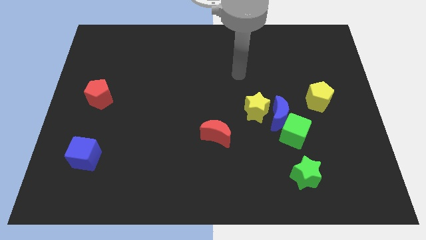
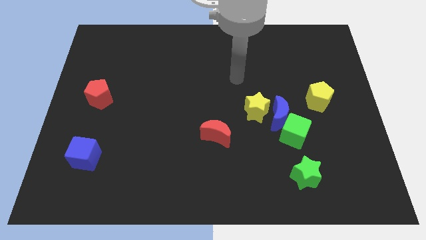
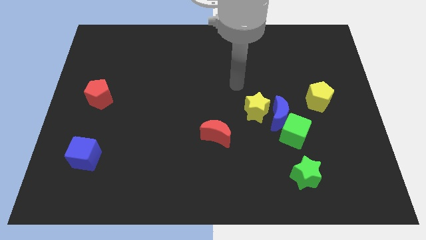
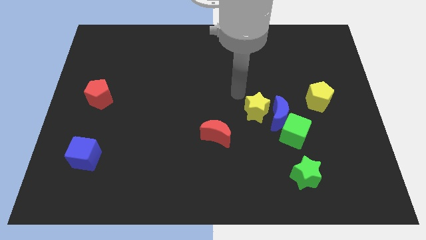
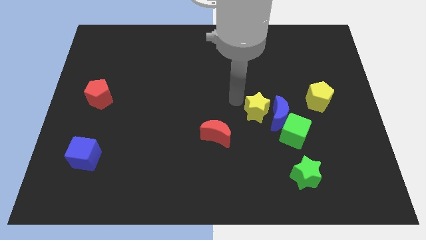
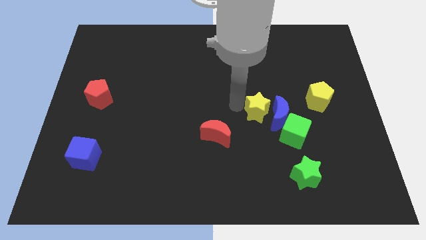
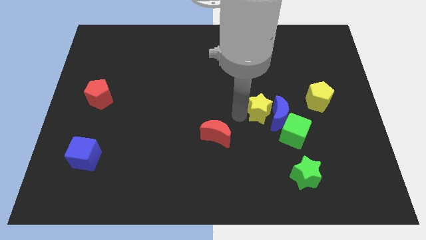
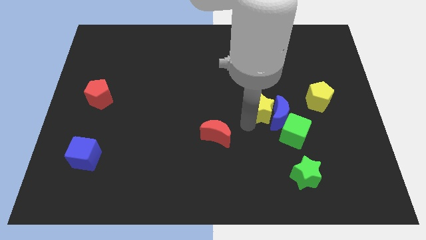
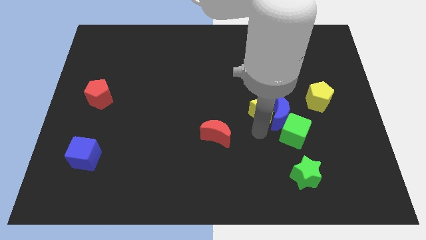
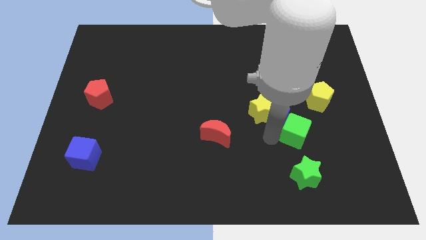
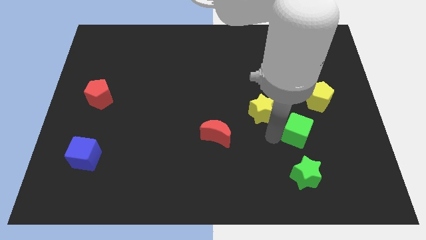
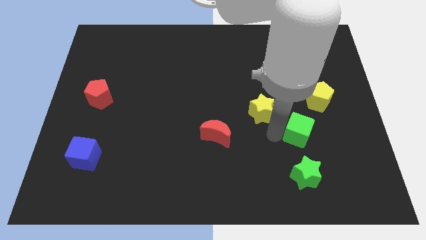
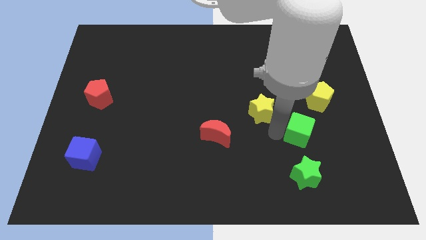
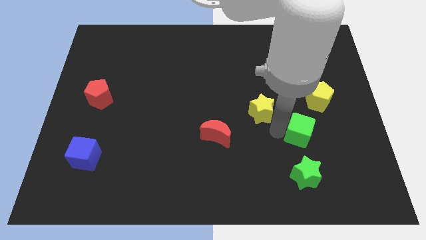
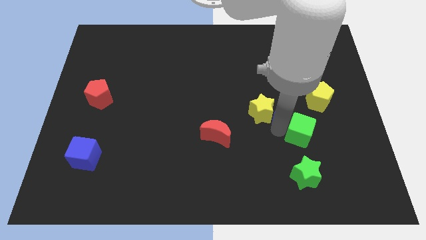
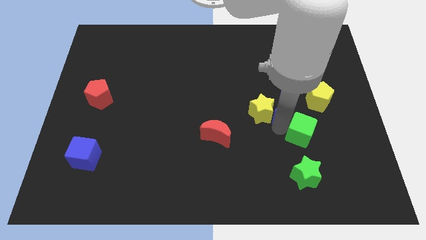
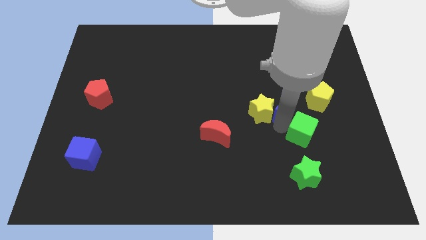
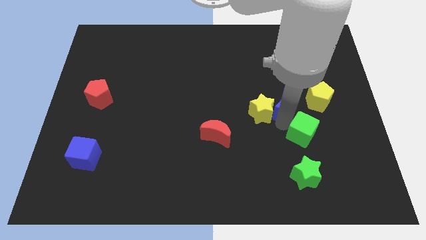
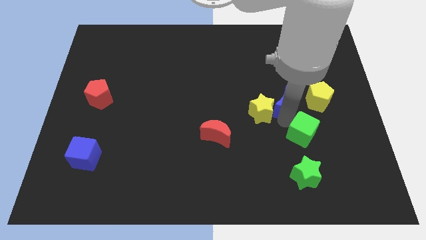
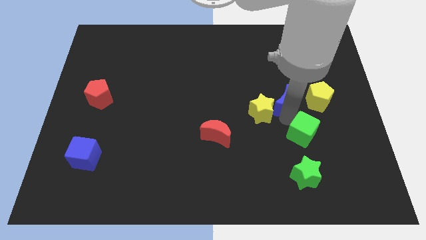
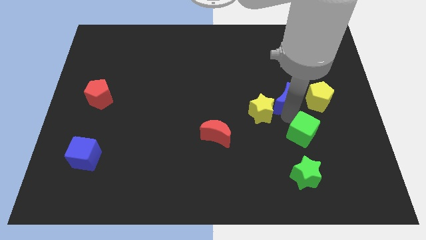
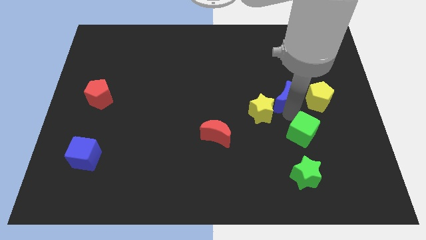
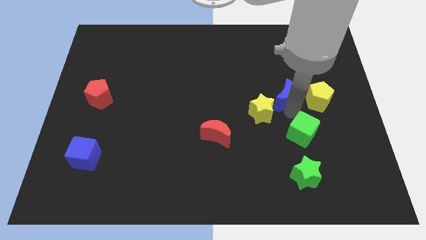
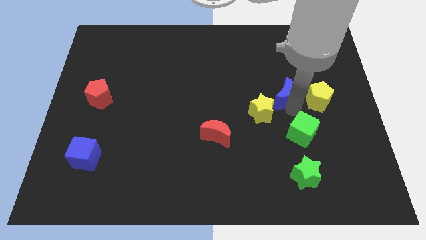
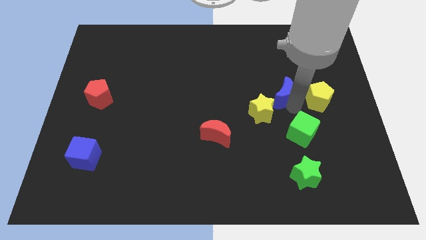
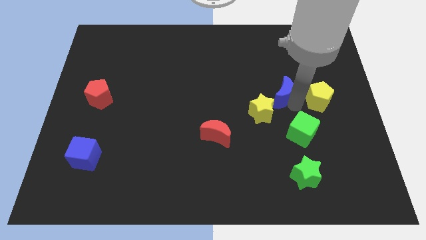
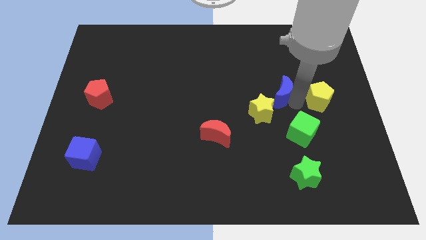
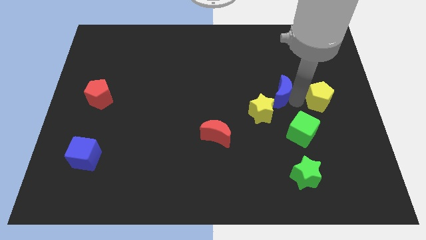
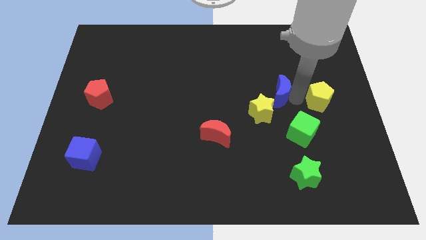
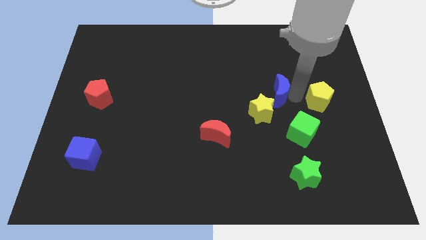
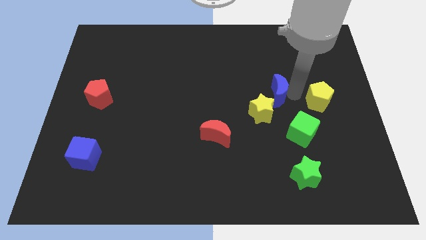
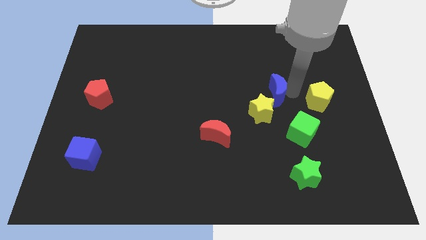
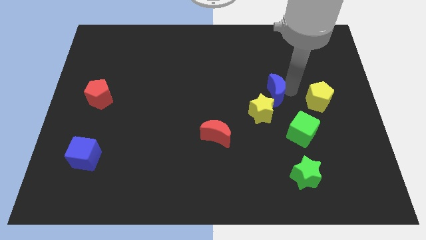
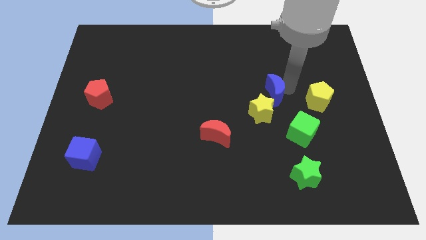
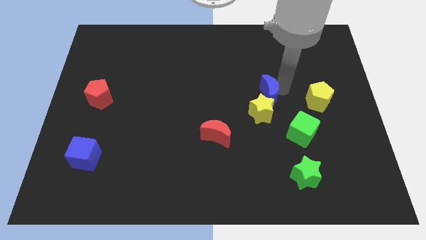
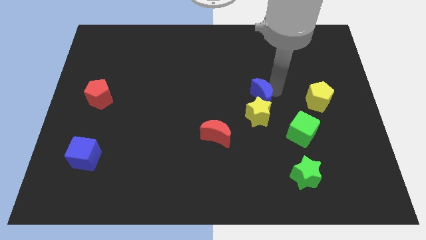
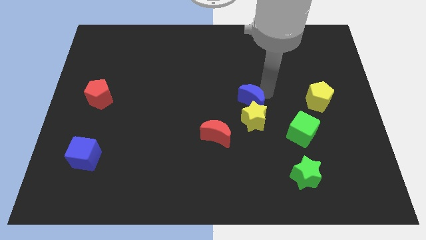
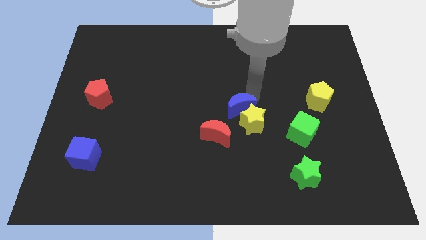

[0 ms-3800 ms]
move the blue moon away from the green cube and yellow star

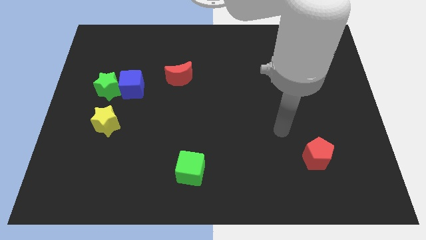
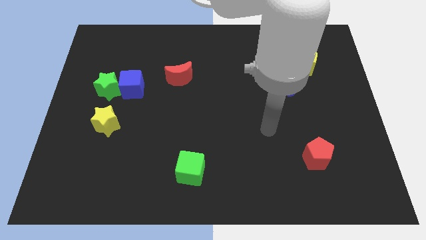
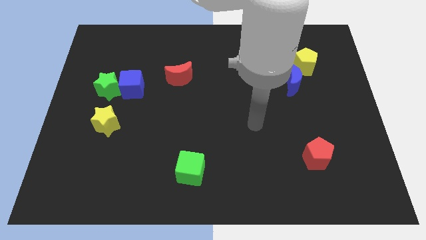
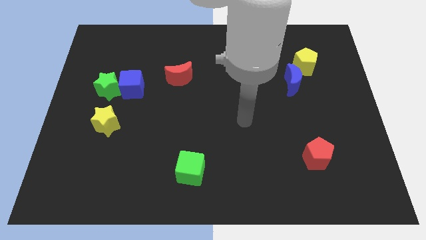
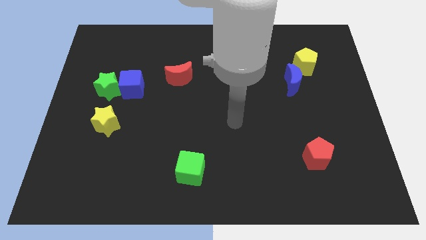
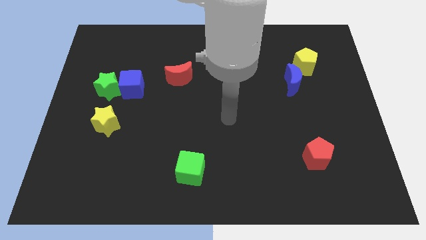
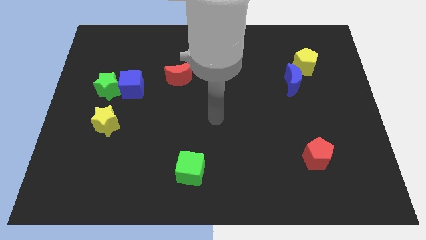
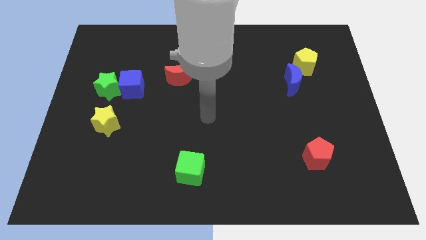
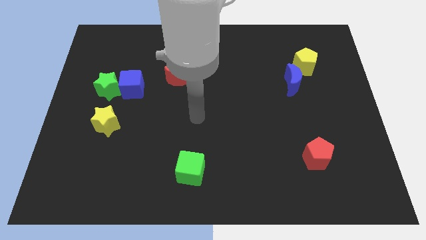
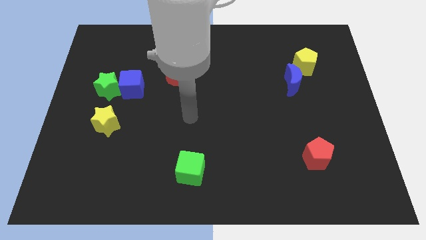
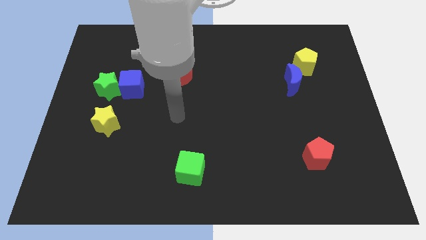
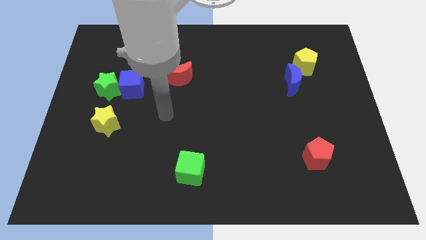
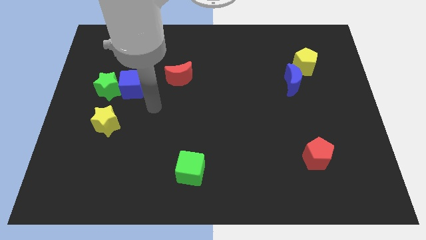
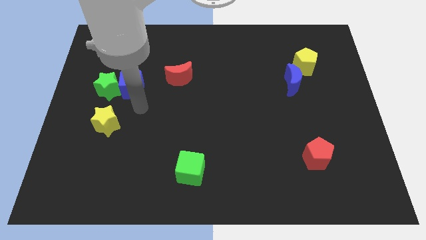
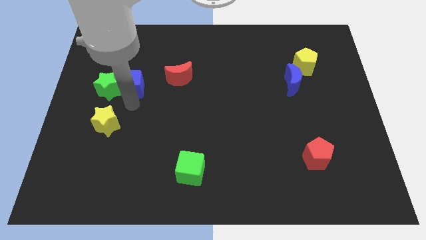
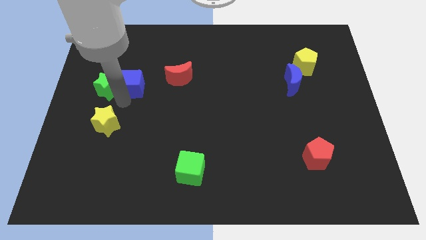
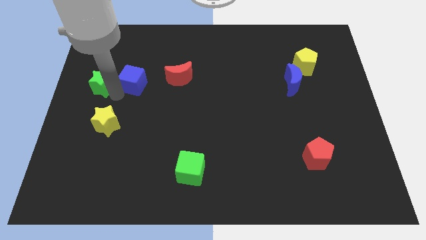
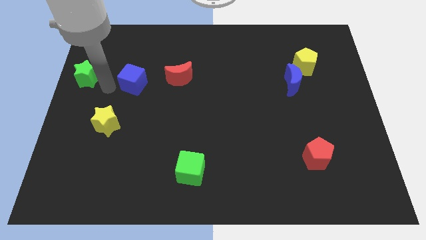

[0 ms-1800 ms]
move the blue cube away from the green star

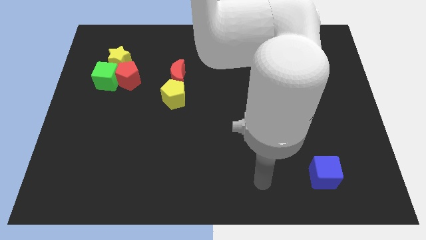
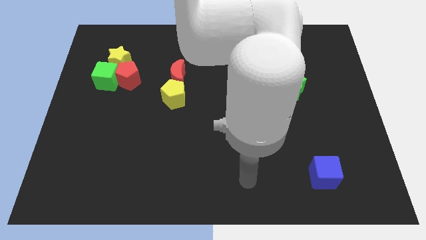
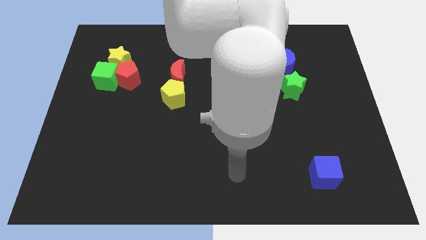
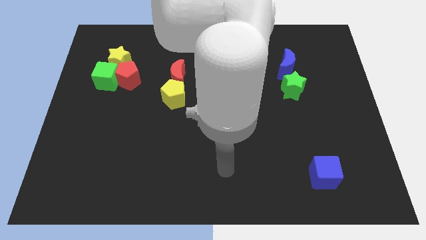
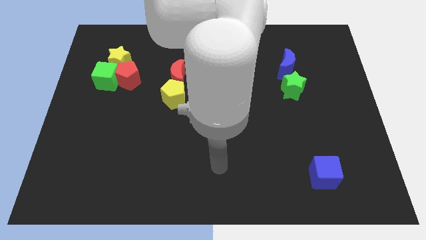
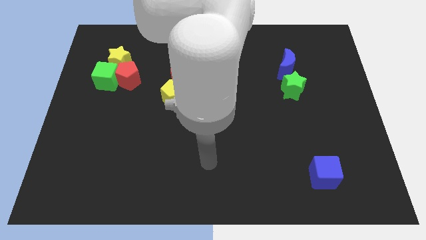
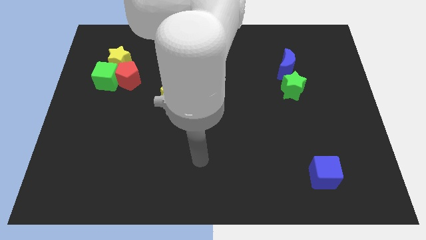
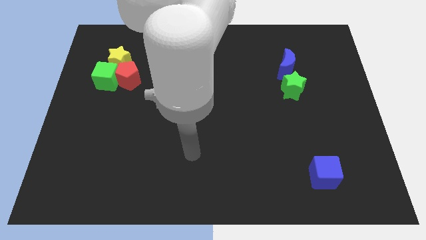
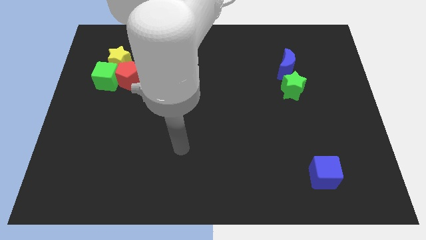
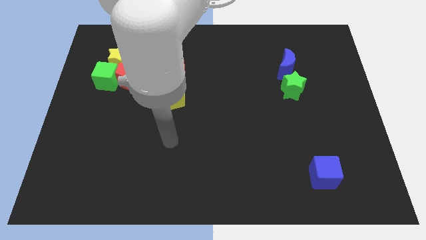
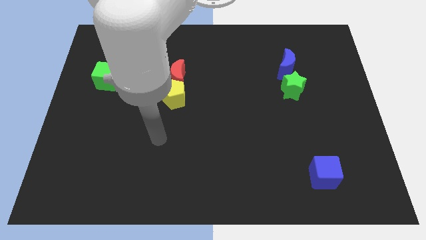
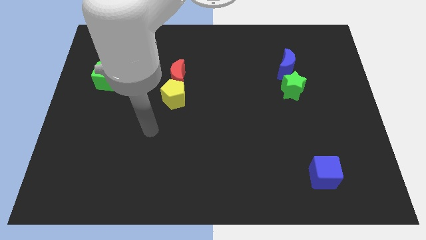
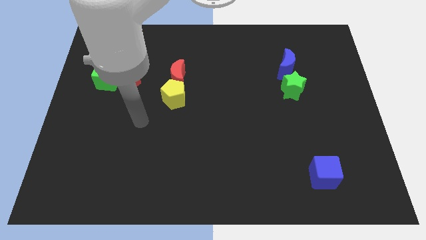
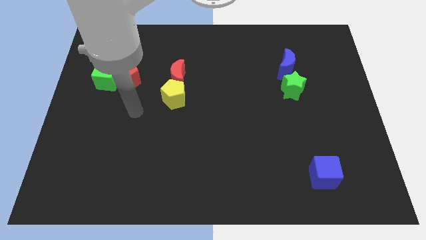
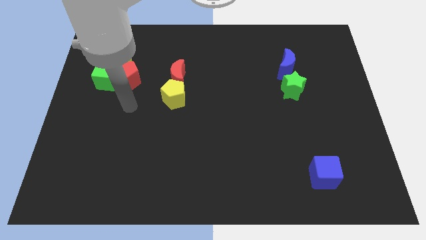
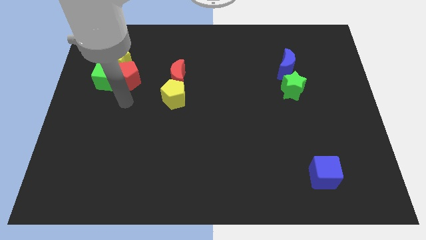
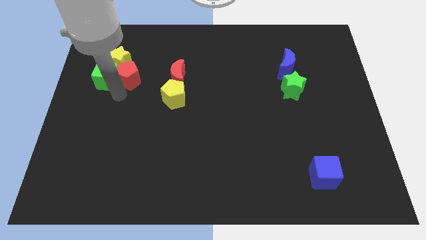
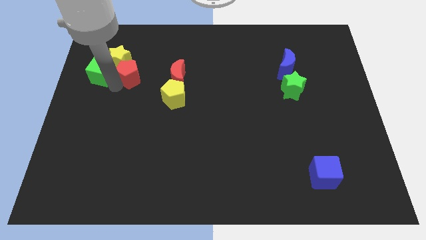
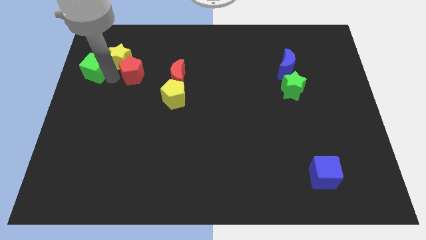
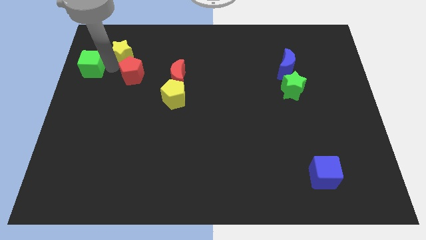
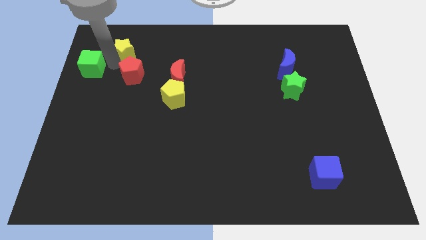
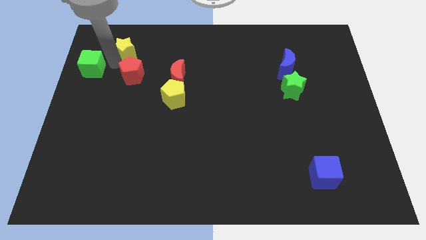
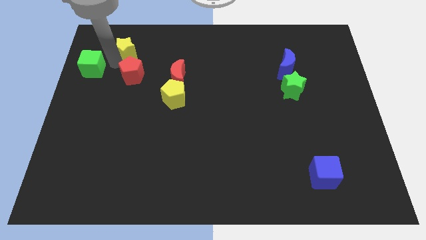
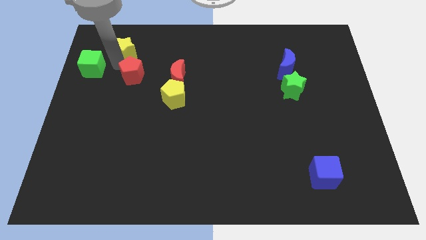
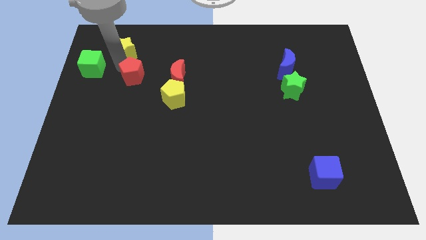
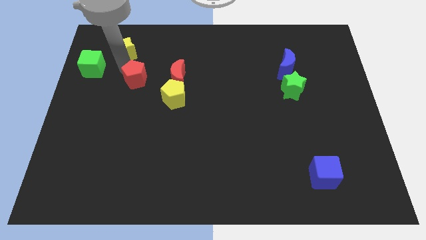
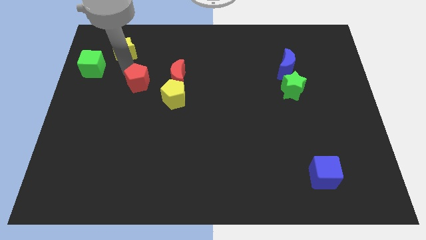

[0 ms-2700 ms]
move the red pentagon away from the green cube and yellow star

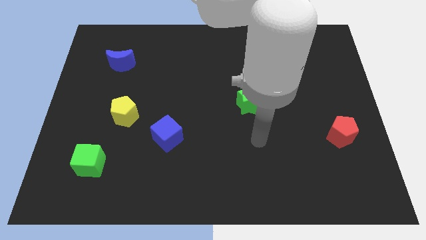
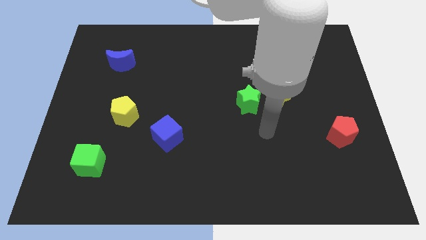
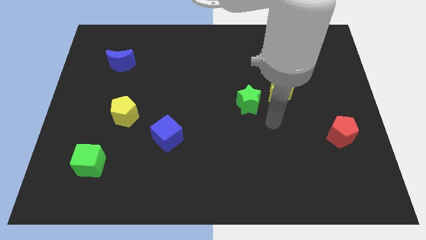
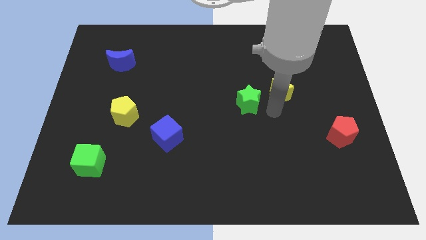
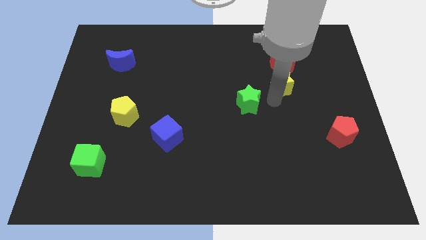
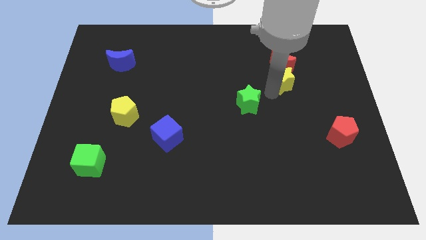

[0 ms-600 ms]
separate the green star from the yellow star

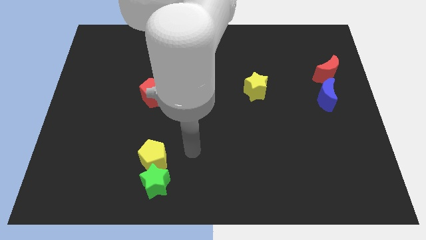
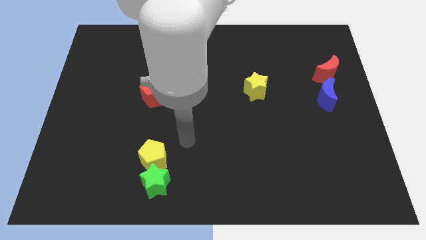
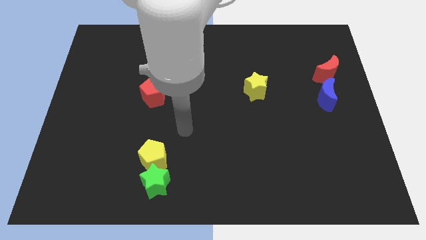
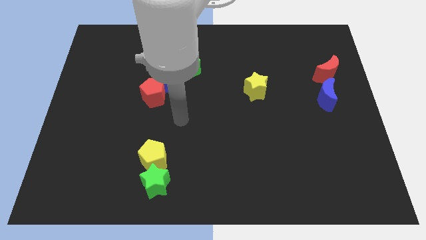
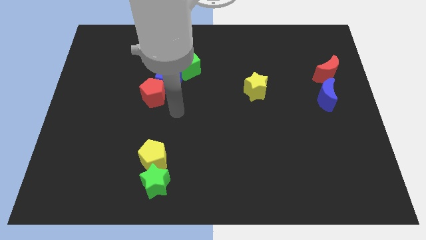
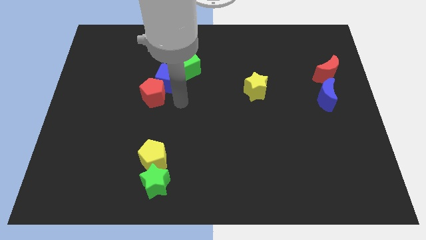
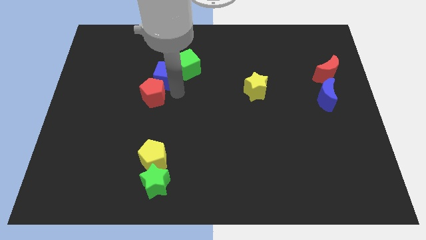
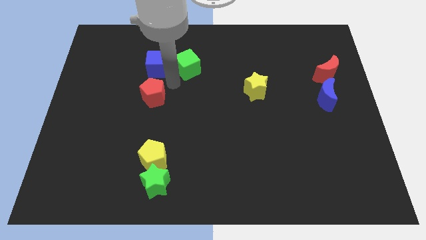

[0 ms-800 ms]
pull the red pentagon apart from the blue cube
